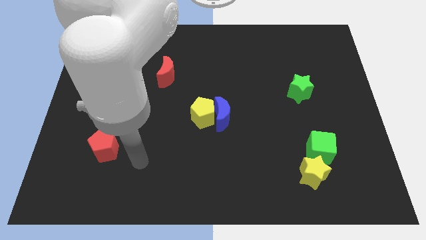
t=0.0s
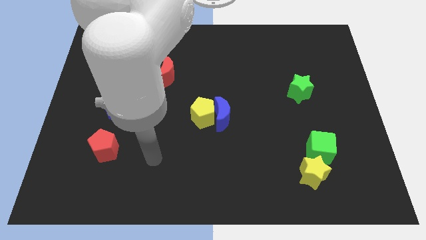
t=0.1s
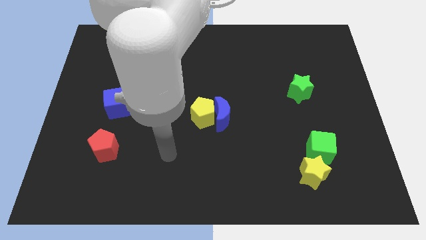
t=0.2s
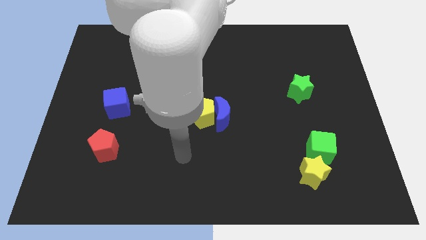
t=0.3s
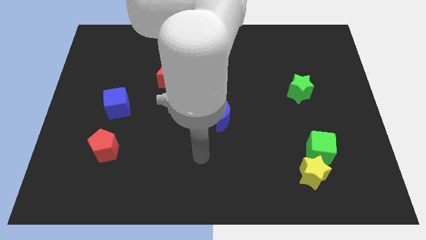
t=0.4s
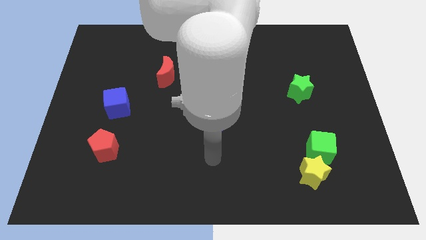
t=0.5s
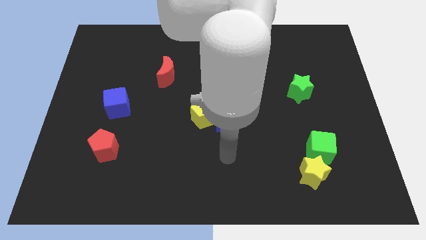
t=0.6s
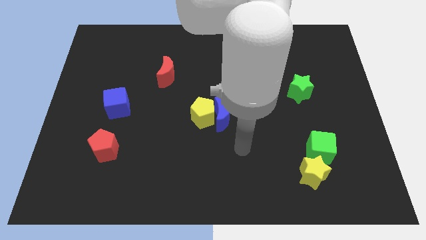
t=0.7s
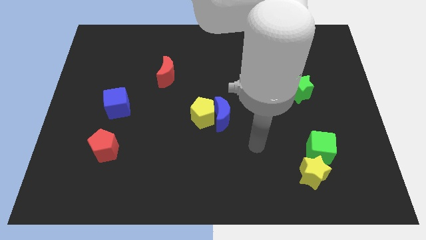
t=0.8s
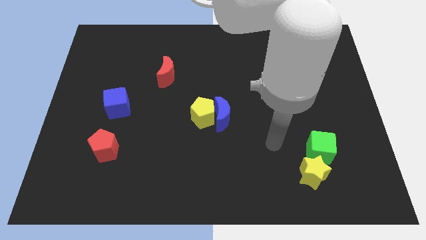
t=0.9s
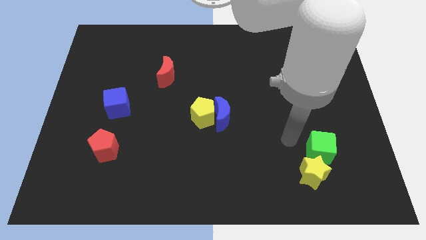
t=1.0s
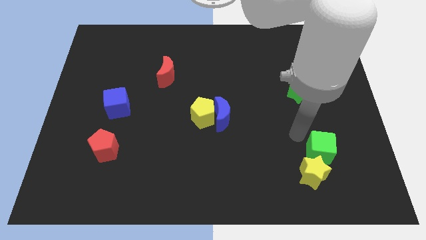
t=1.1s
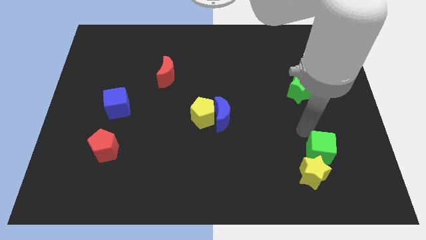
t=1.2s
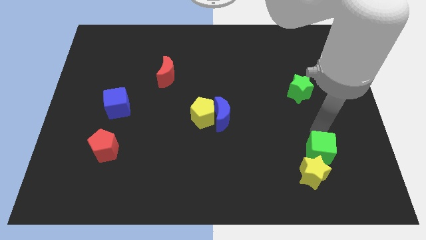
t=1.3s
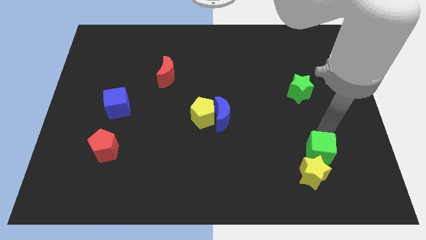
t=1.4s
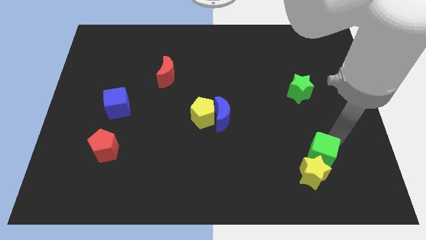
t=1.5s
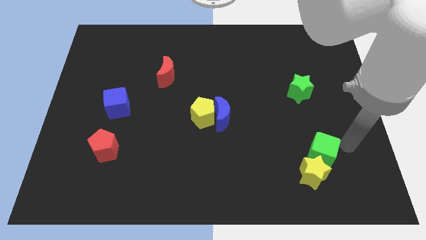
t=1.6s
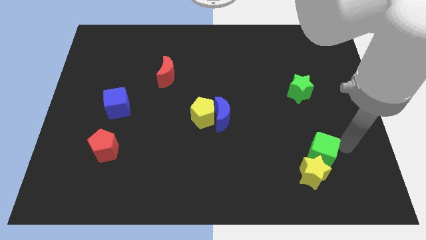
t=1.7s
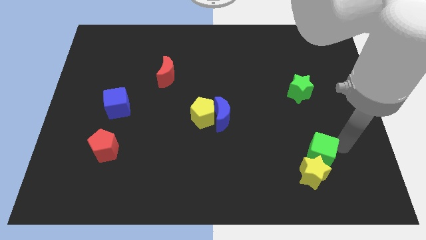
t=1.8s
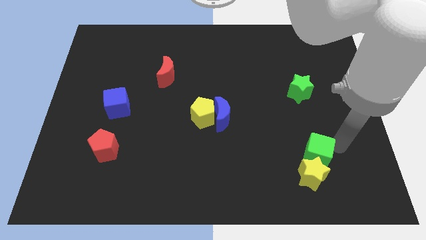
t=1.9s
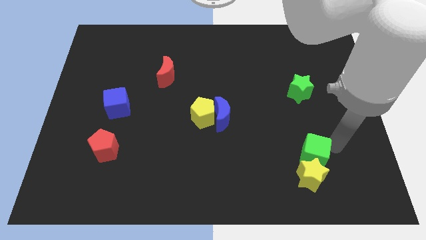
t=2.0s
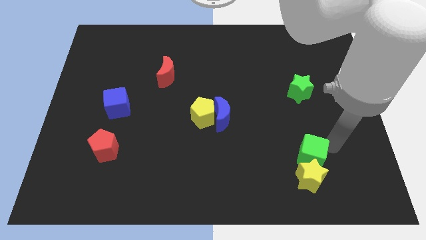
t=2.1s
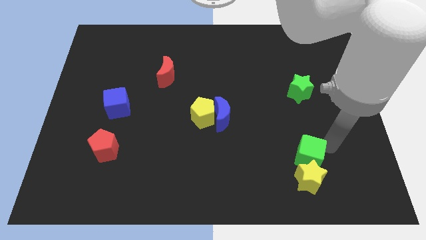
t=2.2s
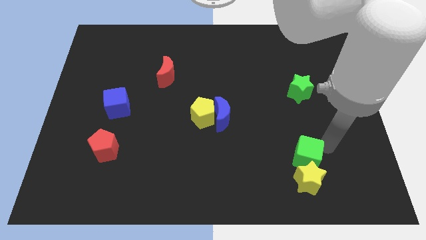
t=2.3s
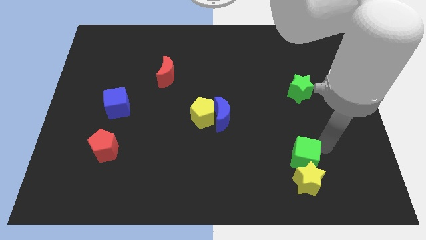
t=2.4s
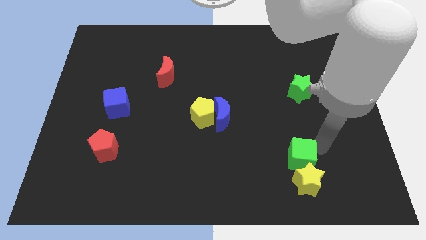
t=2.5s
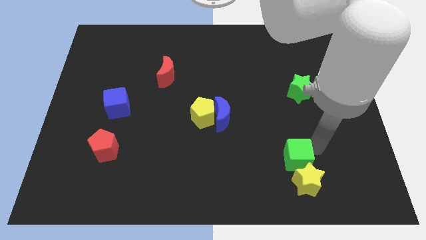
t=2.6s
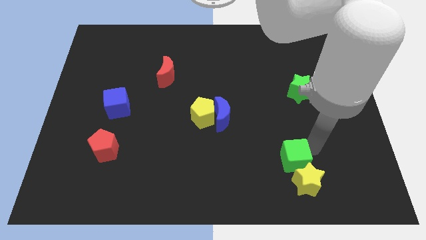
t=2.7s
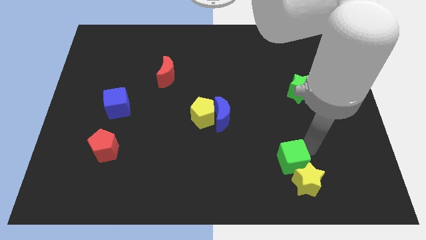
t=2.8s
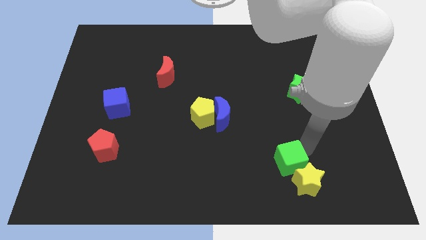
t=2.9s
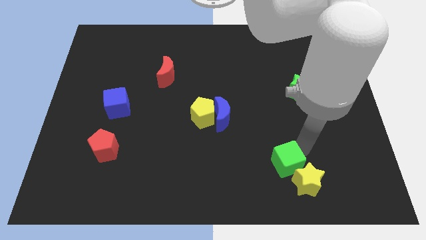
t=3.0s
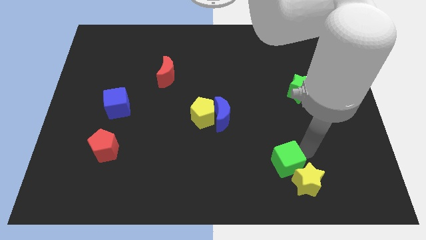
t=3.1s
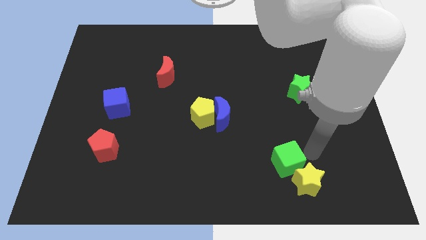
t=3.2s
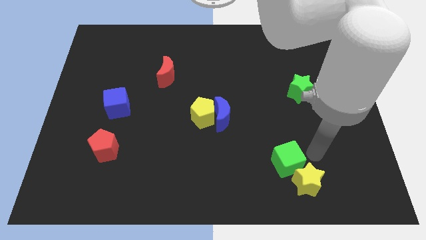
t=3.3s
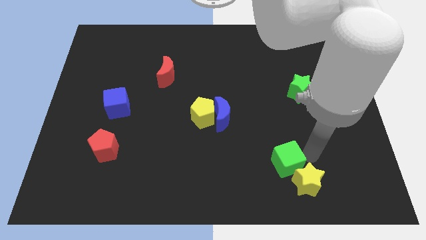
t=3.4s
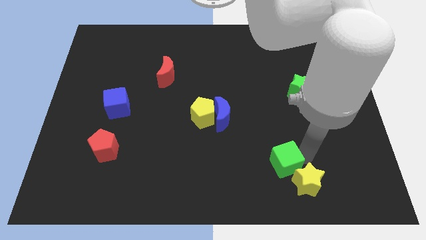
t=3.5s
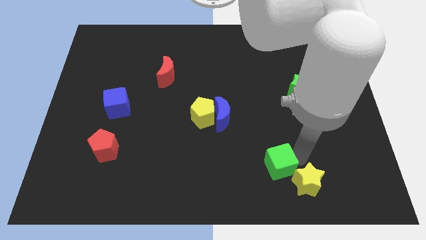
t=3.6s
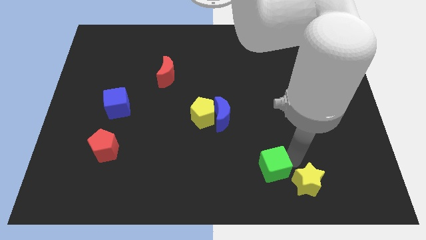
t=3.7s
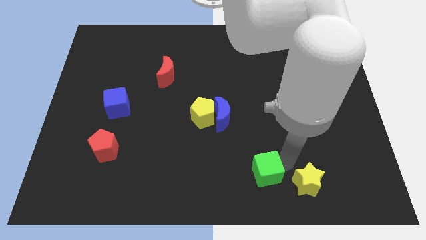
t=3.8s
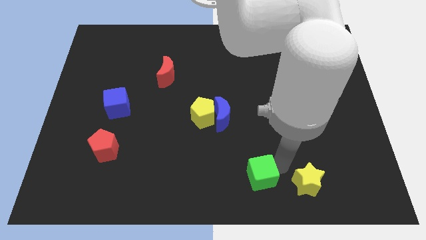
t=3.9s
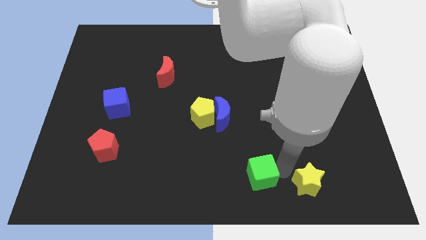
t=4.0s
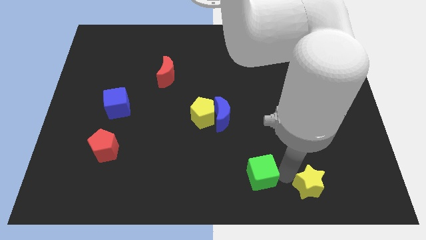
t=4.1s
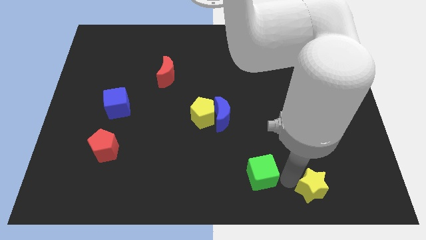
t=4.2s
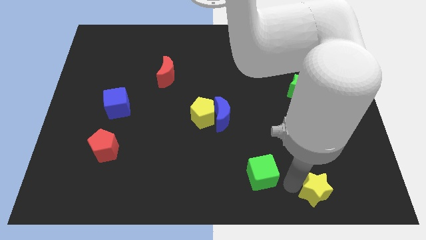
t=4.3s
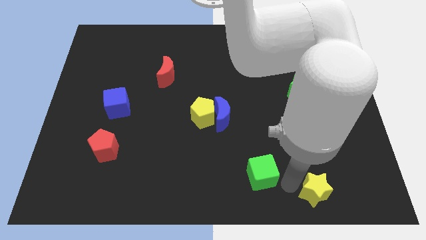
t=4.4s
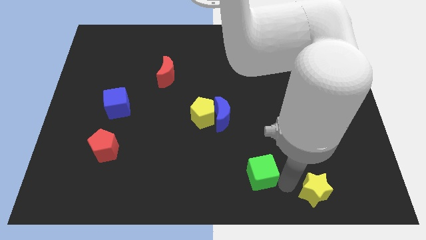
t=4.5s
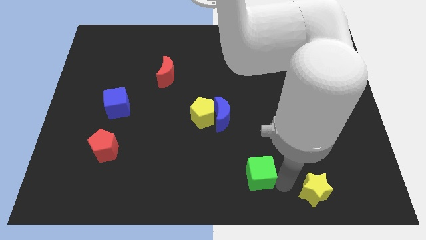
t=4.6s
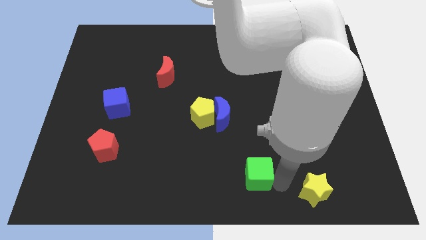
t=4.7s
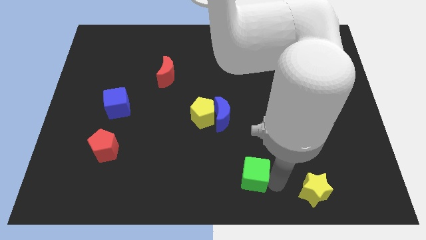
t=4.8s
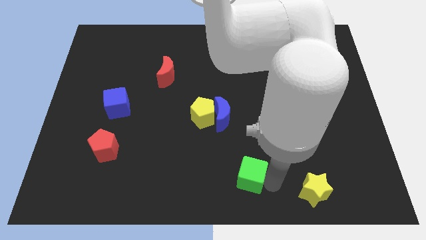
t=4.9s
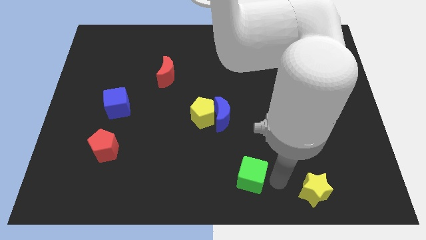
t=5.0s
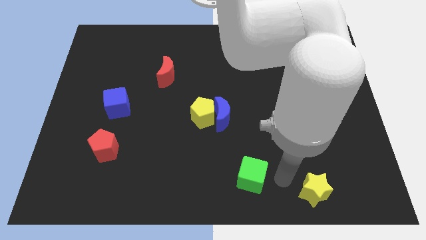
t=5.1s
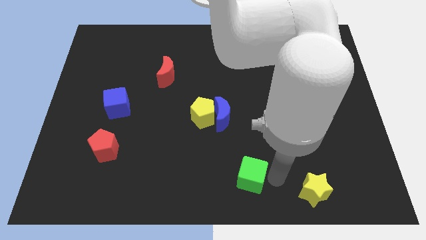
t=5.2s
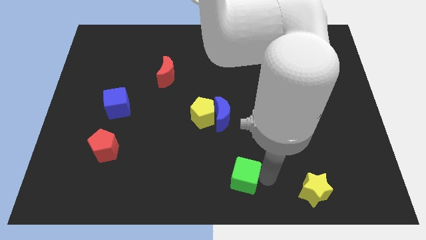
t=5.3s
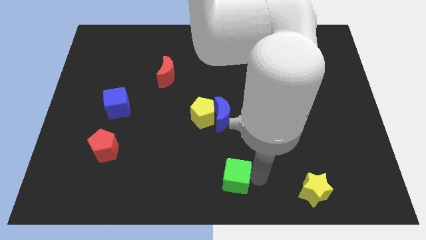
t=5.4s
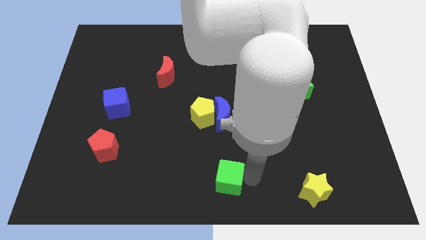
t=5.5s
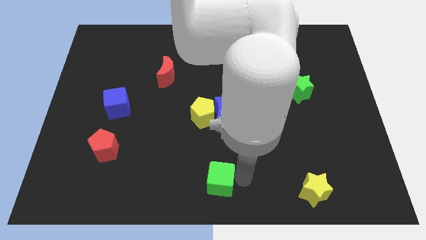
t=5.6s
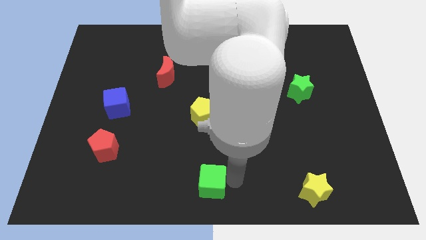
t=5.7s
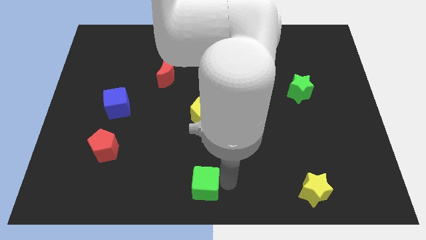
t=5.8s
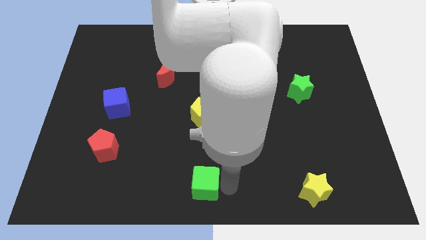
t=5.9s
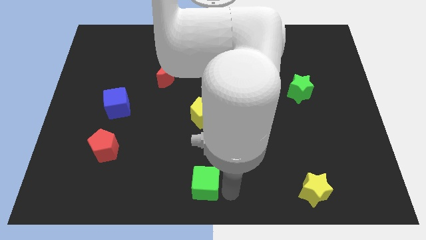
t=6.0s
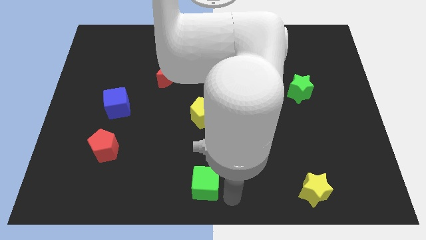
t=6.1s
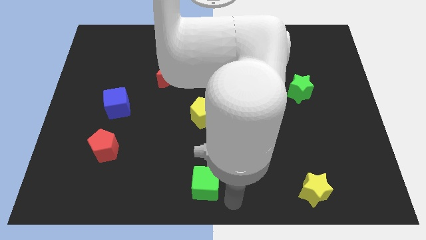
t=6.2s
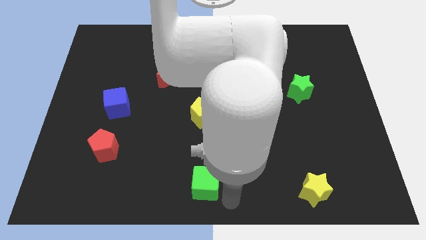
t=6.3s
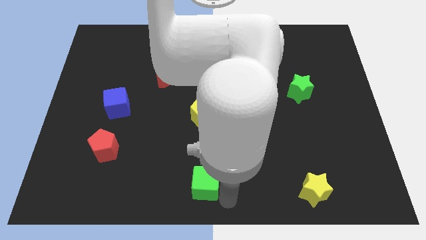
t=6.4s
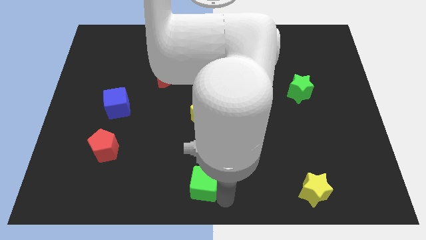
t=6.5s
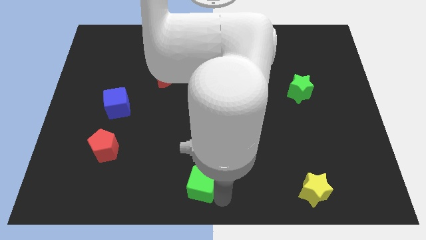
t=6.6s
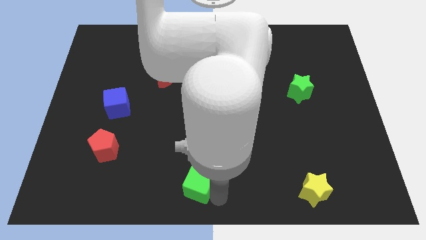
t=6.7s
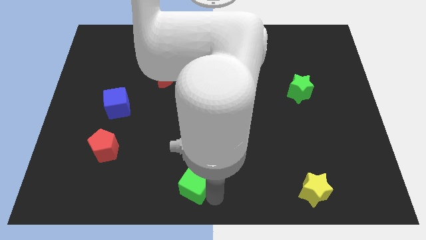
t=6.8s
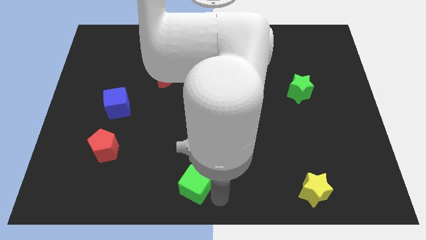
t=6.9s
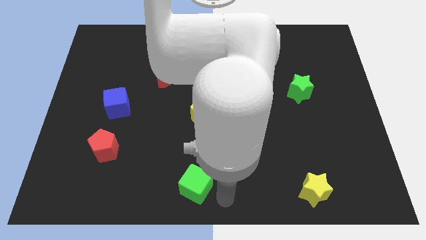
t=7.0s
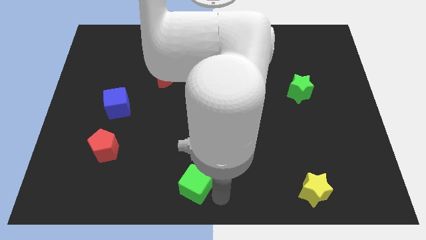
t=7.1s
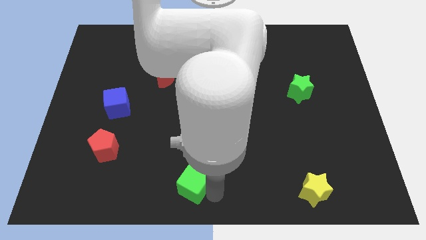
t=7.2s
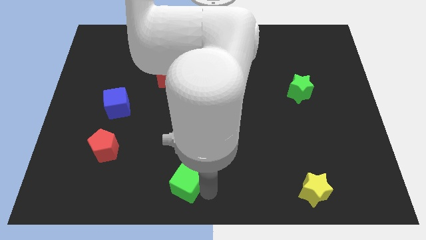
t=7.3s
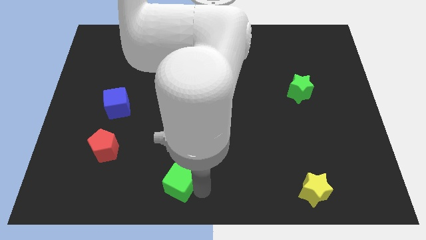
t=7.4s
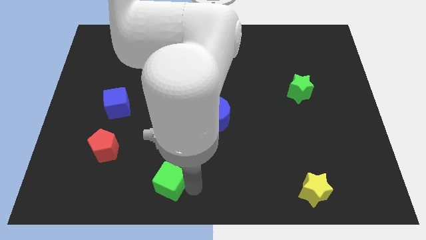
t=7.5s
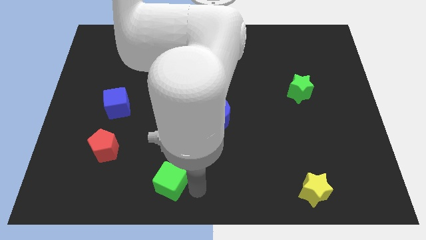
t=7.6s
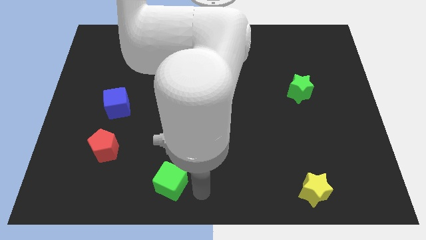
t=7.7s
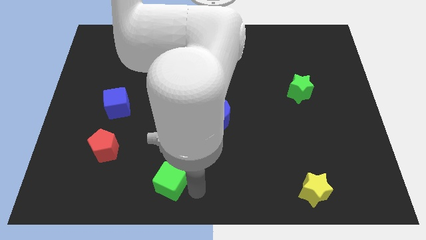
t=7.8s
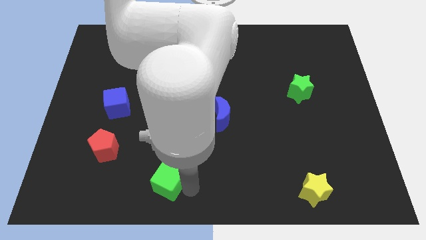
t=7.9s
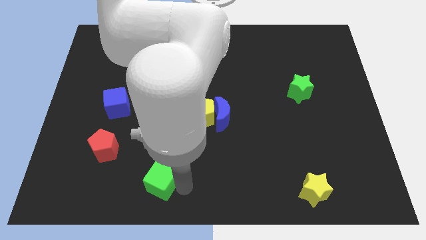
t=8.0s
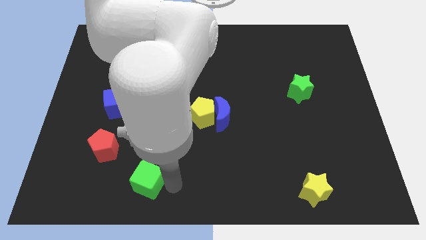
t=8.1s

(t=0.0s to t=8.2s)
push the green cube diagonally down and to the right of the red pentagon
